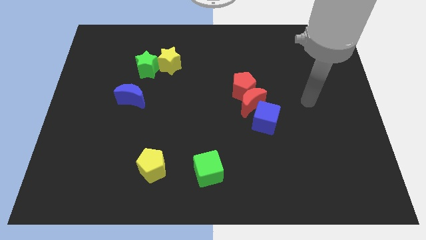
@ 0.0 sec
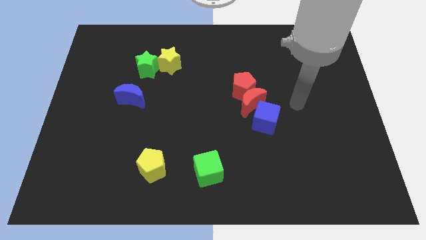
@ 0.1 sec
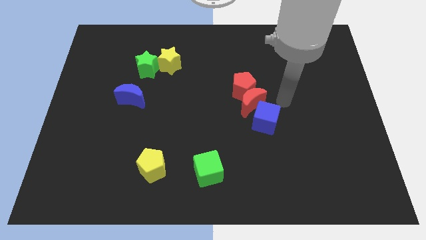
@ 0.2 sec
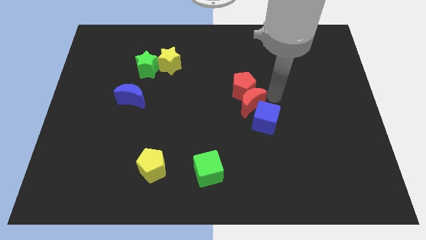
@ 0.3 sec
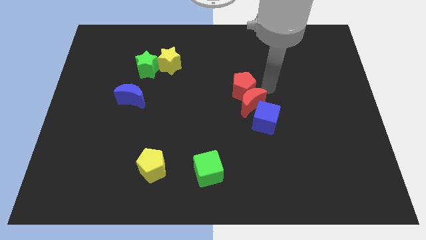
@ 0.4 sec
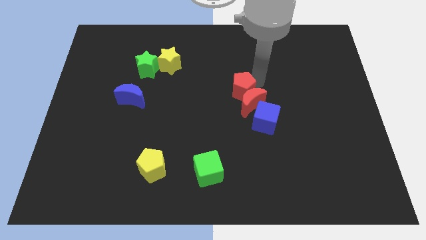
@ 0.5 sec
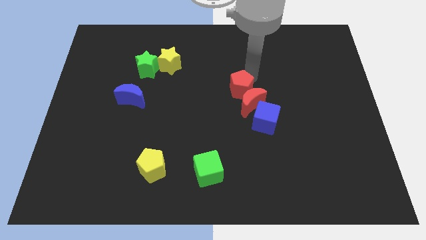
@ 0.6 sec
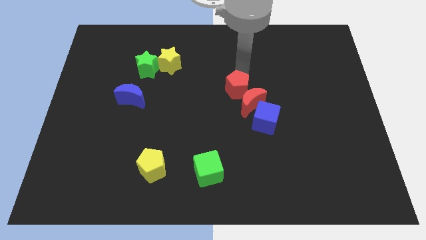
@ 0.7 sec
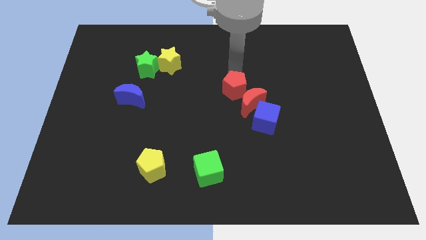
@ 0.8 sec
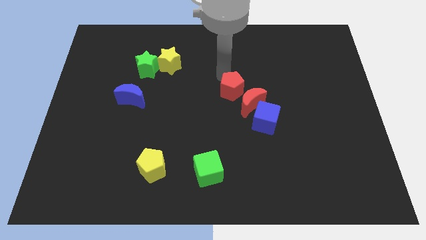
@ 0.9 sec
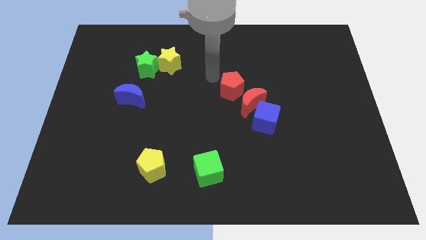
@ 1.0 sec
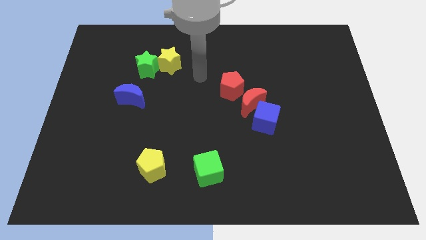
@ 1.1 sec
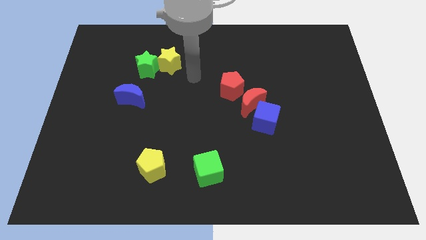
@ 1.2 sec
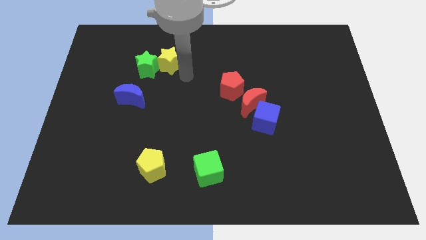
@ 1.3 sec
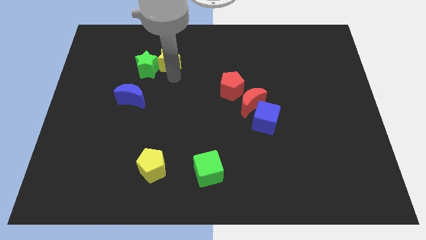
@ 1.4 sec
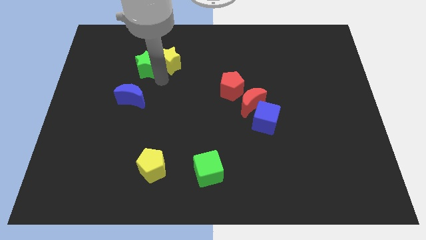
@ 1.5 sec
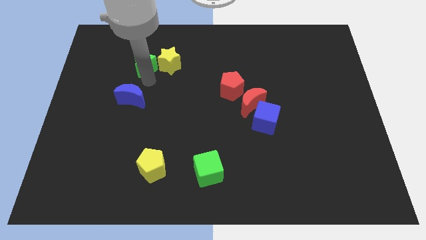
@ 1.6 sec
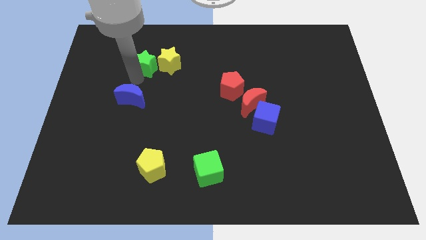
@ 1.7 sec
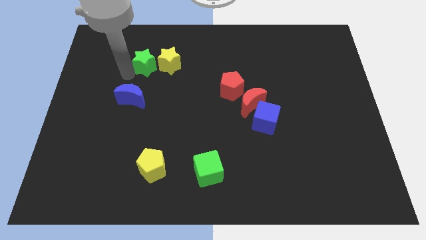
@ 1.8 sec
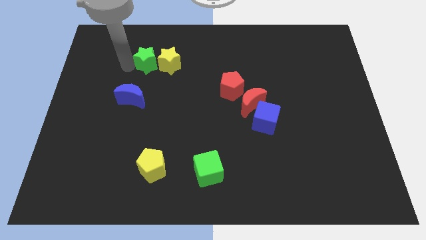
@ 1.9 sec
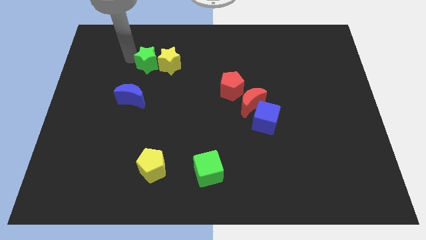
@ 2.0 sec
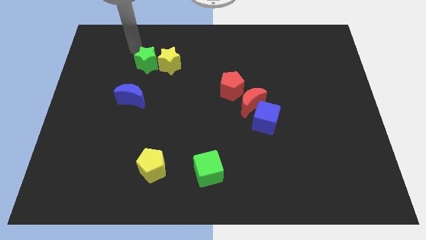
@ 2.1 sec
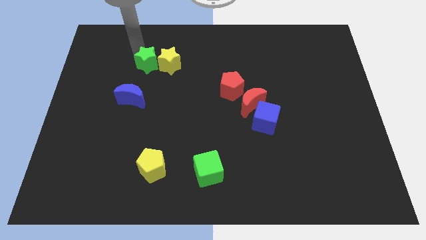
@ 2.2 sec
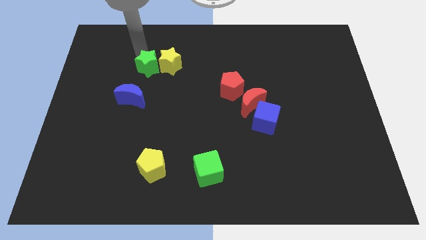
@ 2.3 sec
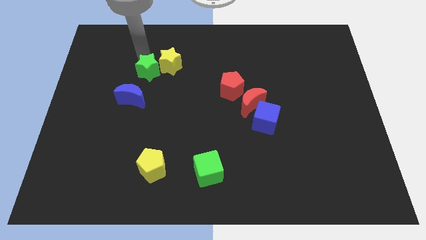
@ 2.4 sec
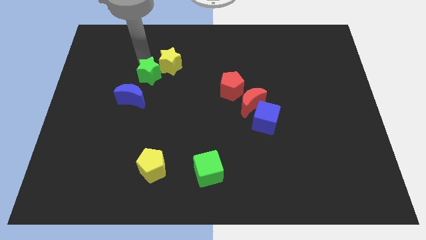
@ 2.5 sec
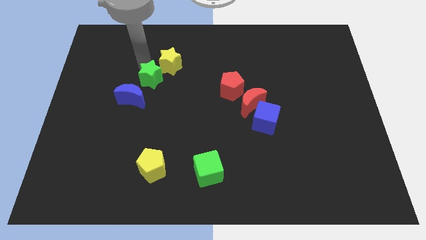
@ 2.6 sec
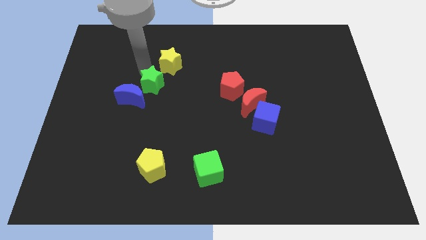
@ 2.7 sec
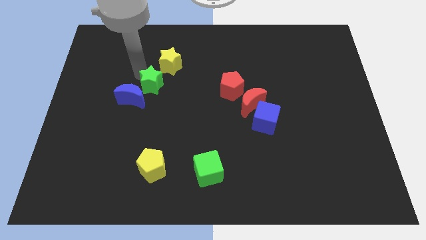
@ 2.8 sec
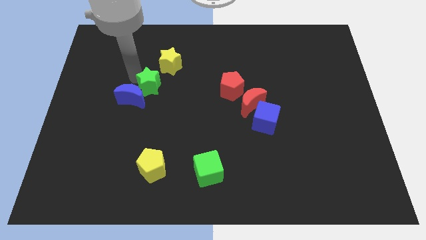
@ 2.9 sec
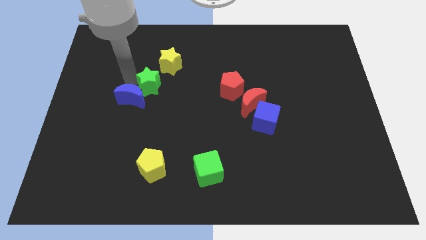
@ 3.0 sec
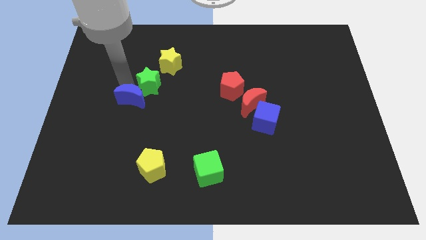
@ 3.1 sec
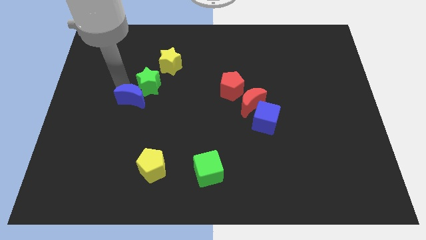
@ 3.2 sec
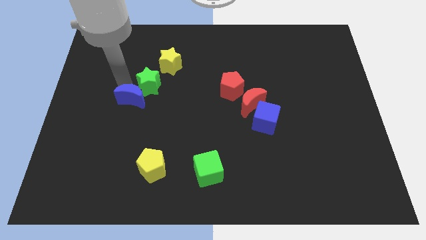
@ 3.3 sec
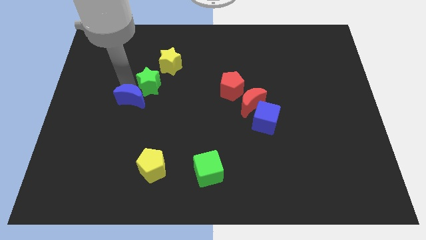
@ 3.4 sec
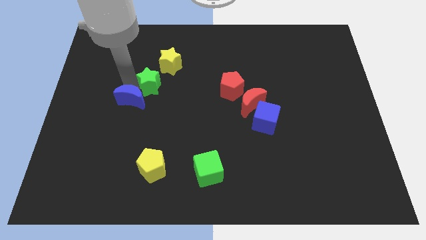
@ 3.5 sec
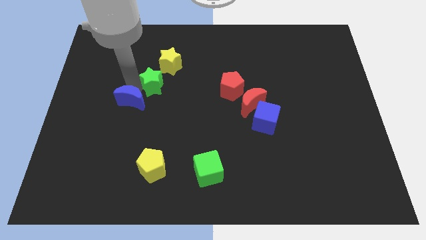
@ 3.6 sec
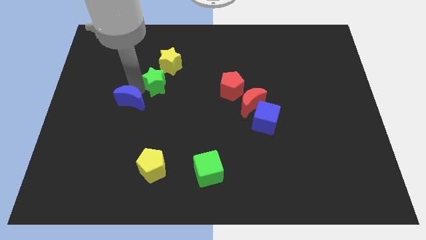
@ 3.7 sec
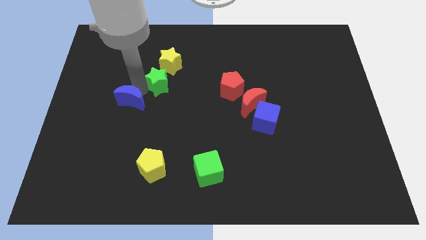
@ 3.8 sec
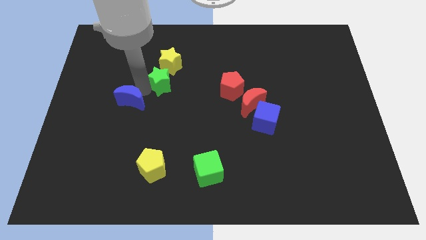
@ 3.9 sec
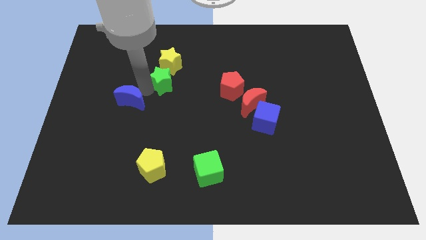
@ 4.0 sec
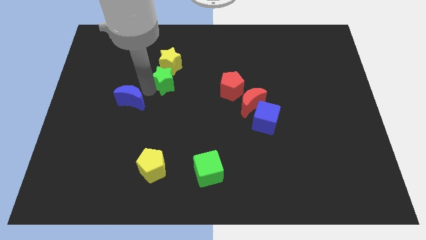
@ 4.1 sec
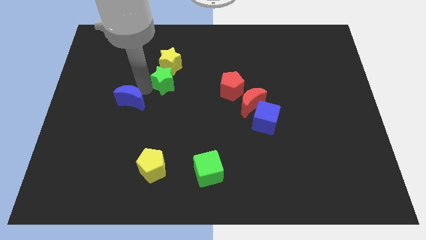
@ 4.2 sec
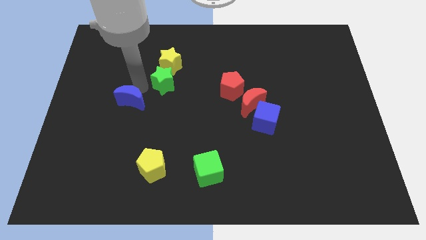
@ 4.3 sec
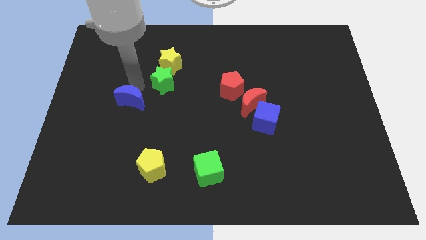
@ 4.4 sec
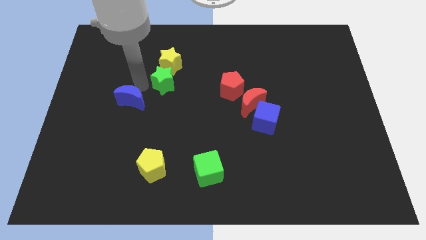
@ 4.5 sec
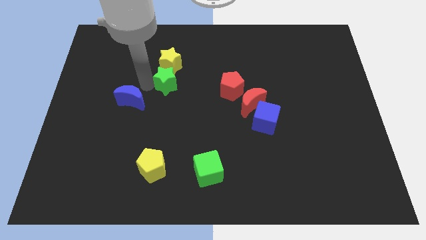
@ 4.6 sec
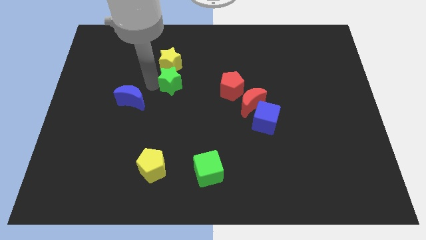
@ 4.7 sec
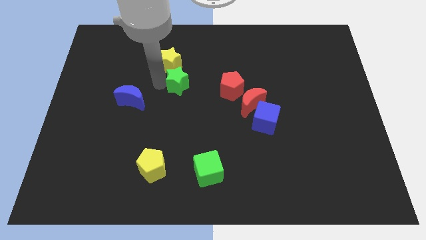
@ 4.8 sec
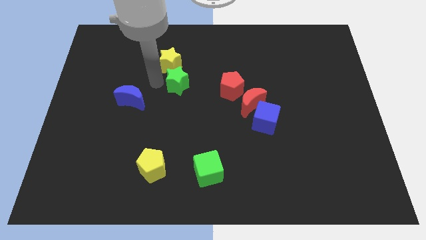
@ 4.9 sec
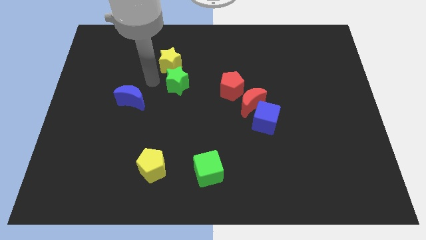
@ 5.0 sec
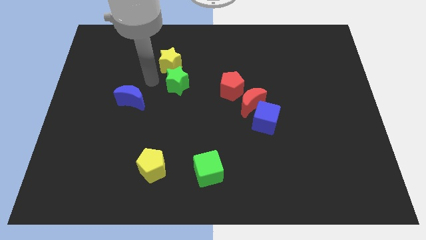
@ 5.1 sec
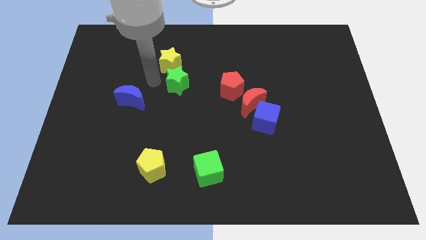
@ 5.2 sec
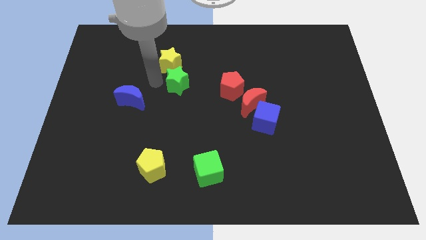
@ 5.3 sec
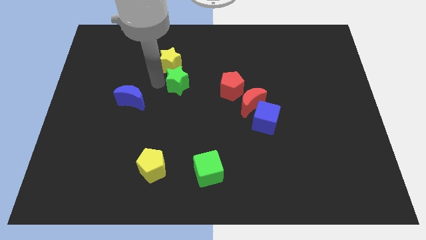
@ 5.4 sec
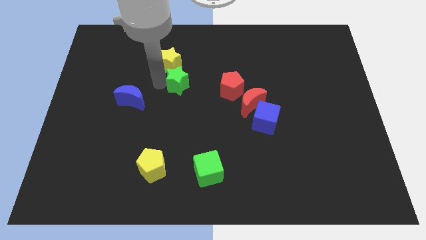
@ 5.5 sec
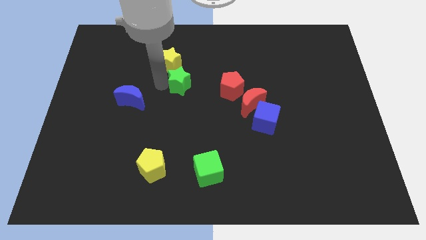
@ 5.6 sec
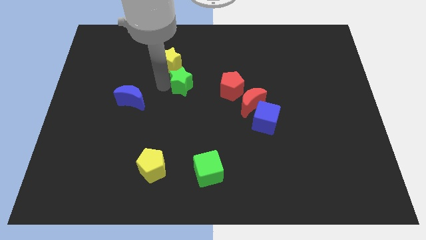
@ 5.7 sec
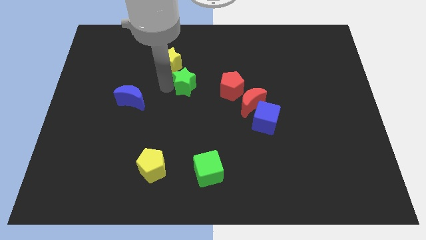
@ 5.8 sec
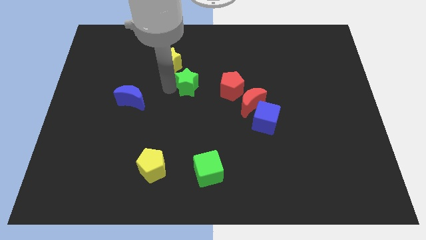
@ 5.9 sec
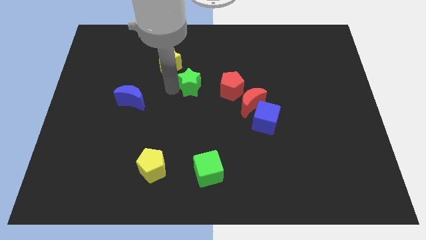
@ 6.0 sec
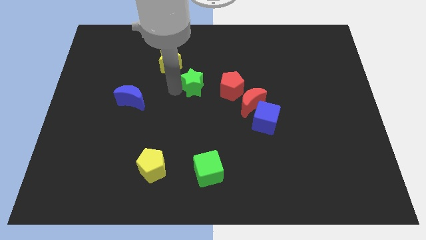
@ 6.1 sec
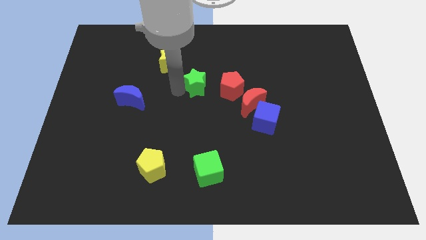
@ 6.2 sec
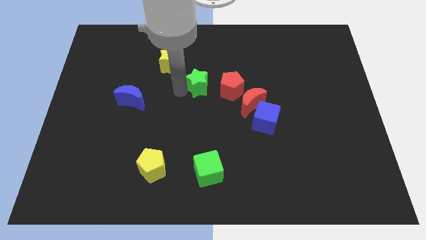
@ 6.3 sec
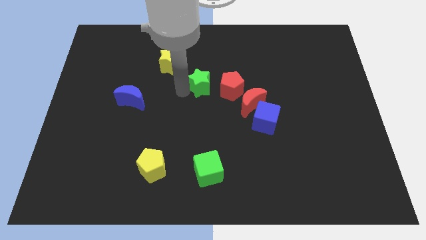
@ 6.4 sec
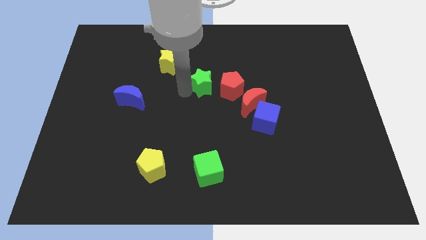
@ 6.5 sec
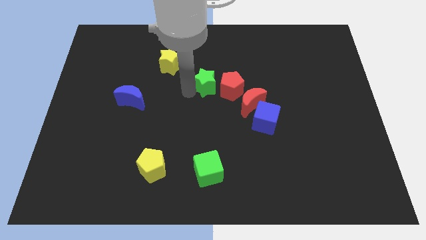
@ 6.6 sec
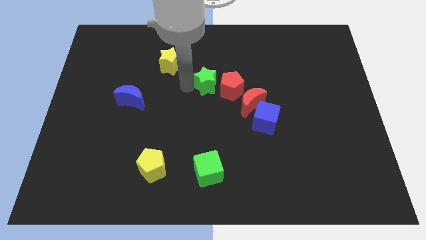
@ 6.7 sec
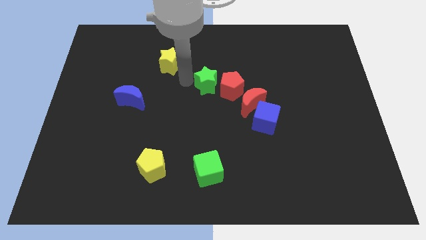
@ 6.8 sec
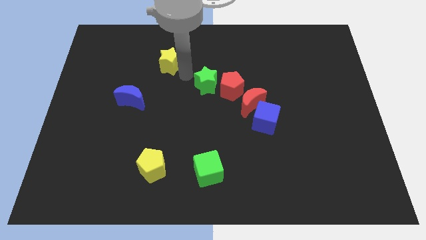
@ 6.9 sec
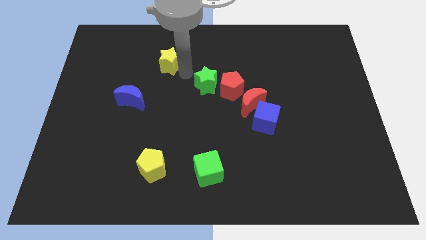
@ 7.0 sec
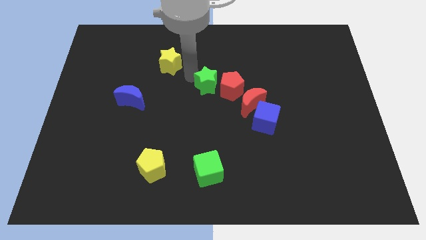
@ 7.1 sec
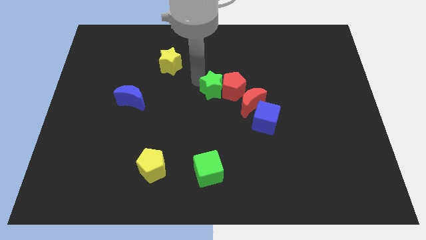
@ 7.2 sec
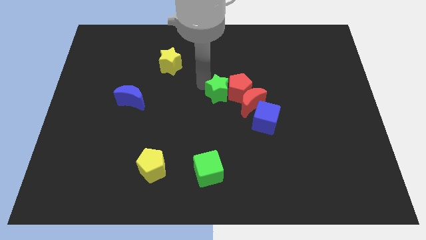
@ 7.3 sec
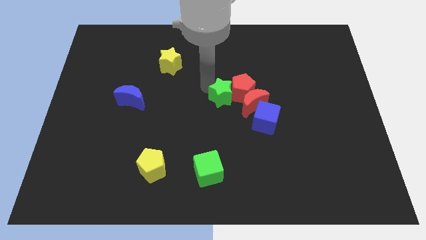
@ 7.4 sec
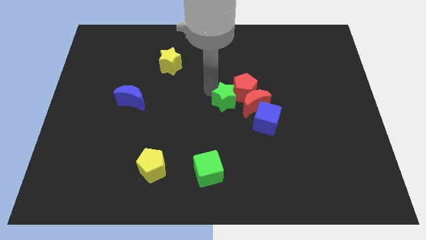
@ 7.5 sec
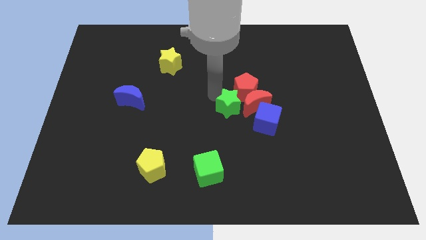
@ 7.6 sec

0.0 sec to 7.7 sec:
move the green star next to the red moon
